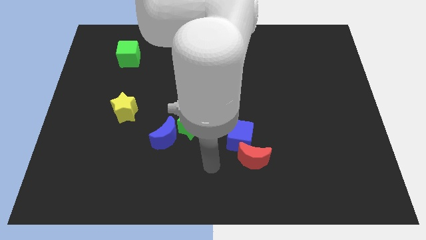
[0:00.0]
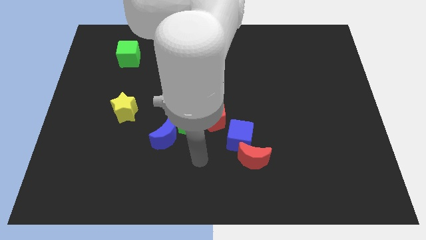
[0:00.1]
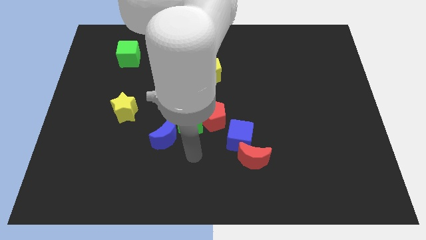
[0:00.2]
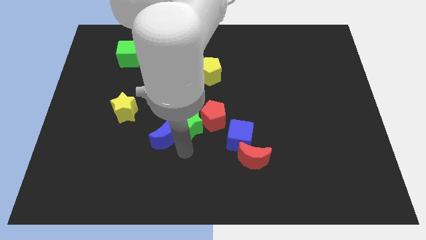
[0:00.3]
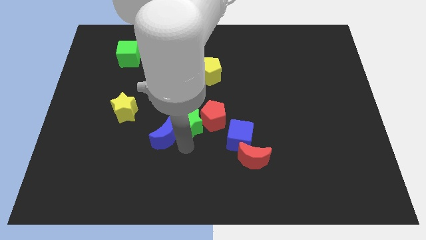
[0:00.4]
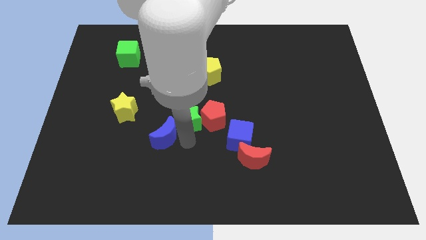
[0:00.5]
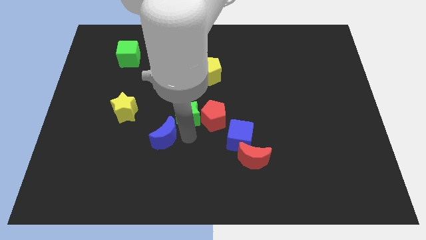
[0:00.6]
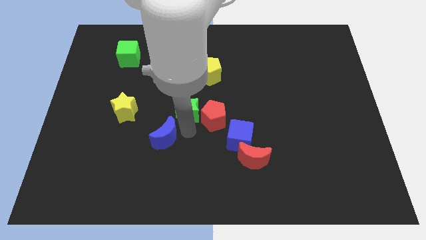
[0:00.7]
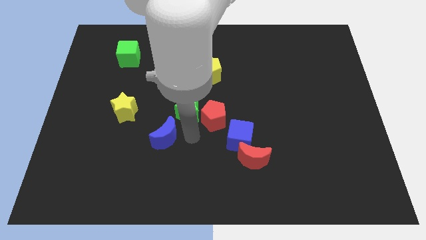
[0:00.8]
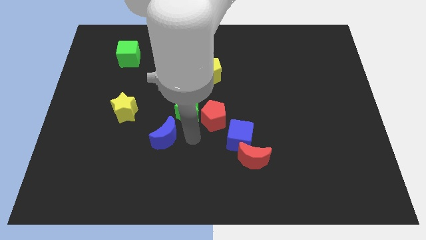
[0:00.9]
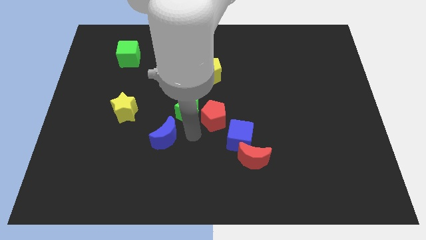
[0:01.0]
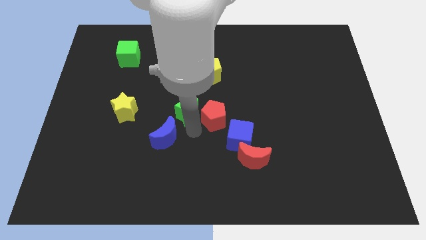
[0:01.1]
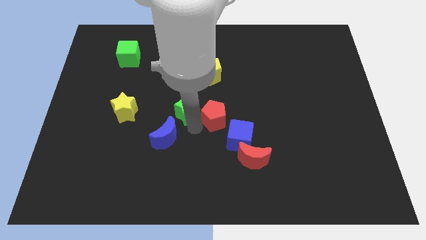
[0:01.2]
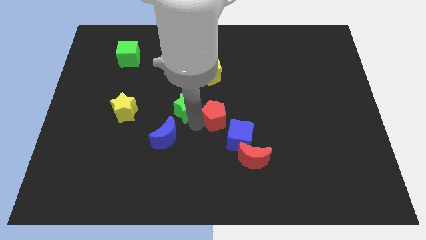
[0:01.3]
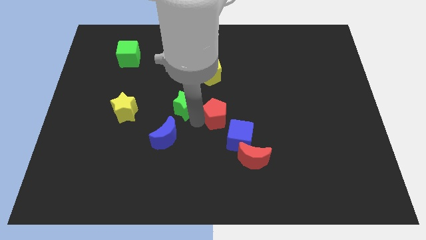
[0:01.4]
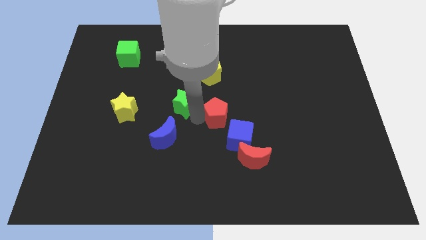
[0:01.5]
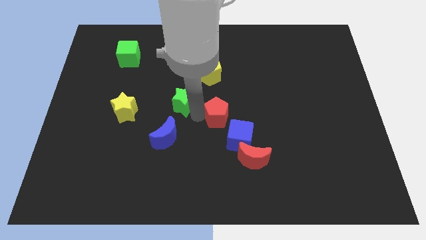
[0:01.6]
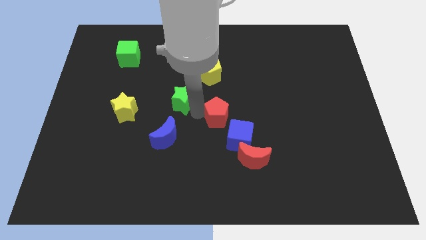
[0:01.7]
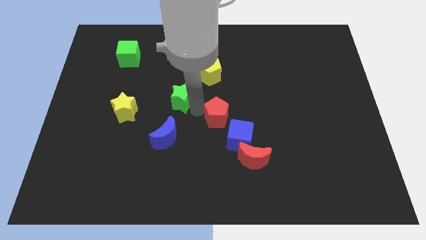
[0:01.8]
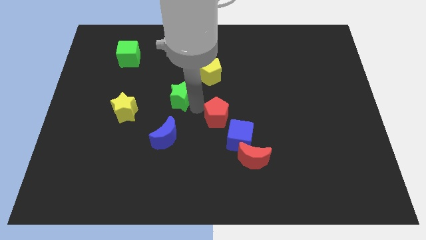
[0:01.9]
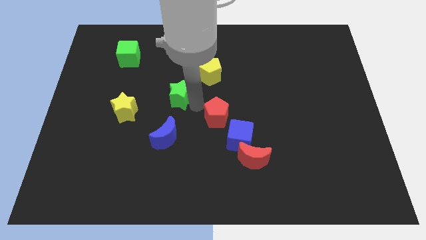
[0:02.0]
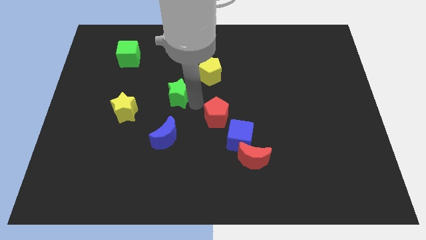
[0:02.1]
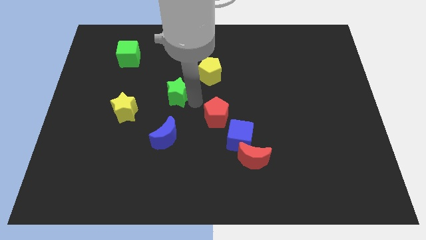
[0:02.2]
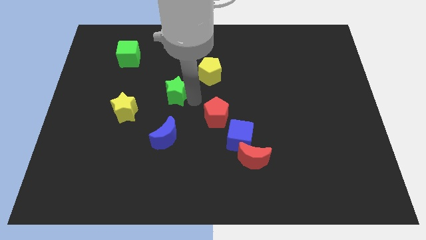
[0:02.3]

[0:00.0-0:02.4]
move the green star away from the red pentagon and blue moon

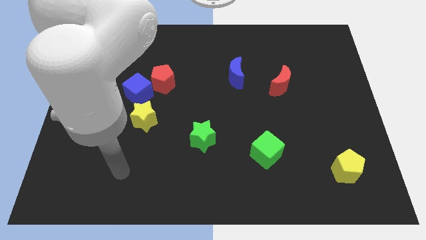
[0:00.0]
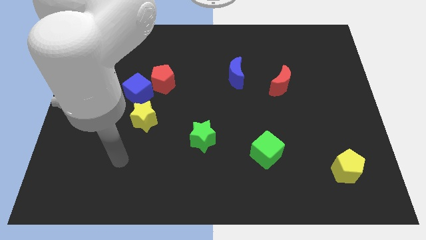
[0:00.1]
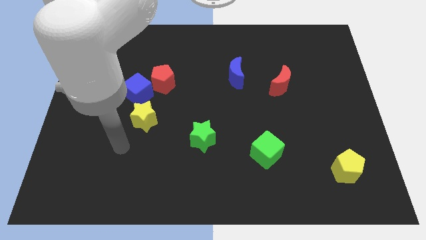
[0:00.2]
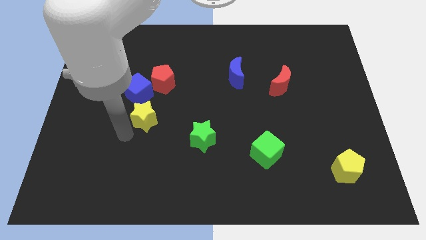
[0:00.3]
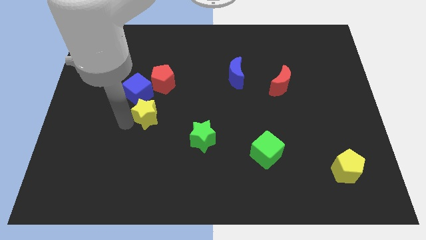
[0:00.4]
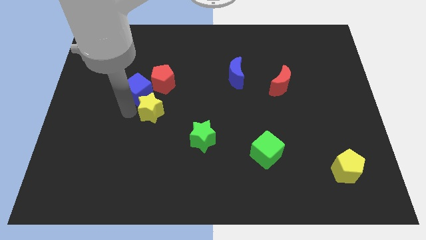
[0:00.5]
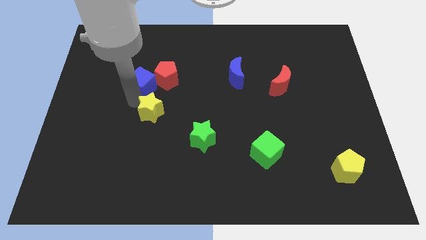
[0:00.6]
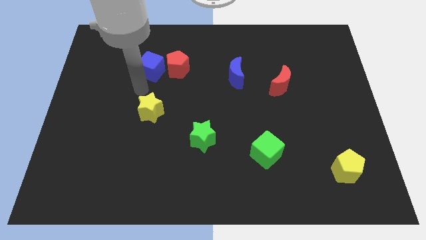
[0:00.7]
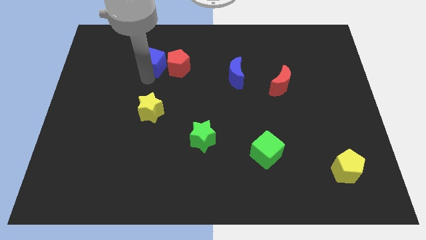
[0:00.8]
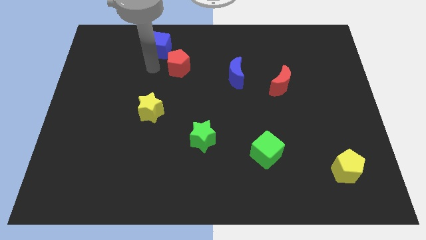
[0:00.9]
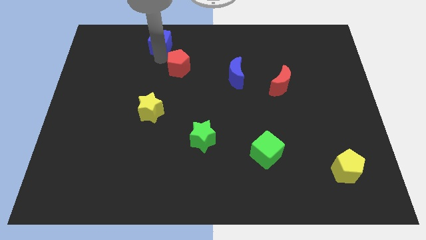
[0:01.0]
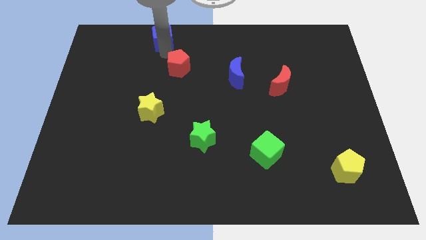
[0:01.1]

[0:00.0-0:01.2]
move the red pentagon away from the blue cube

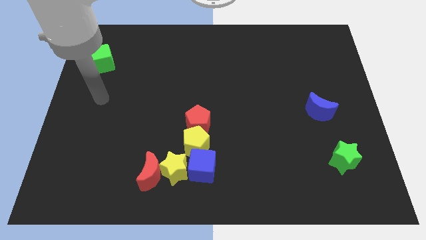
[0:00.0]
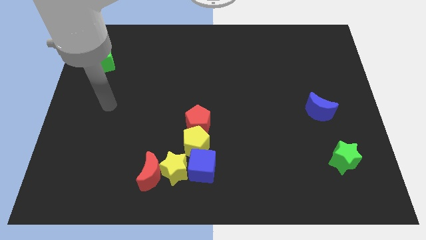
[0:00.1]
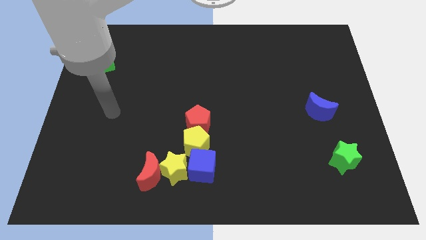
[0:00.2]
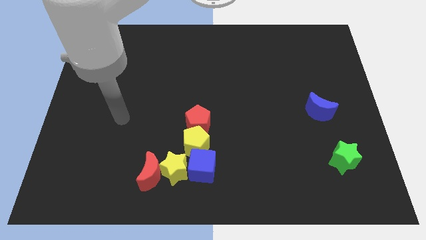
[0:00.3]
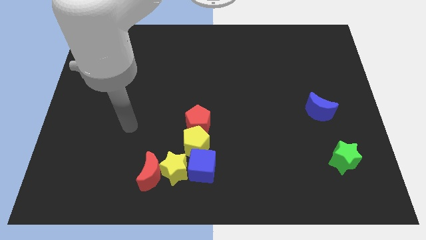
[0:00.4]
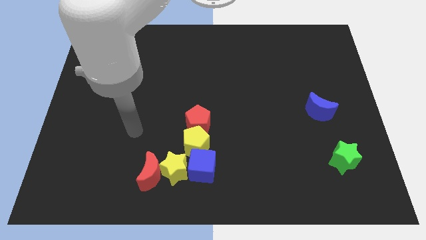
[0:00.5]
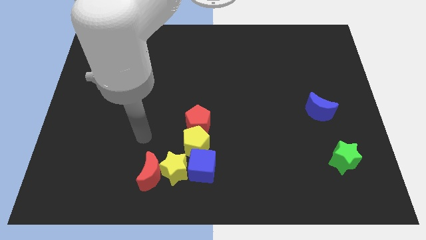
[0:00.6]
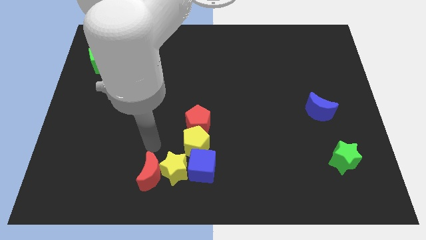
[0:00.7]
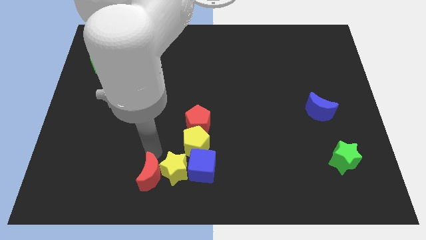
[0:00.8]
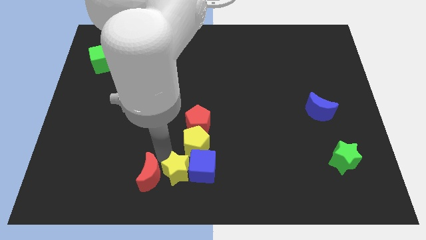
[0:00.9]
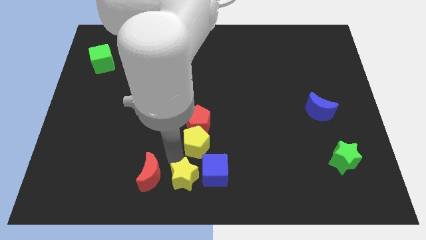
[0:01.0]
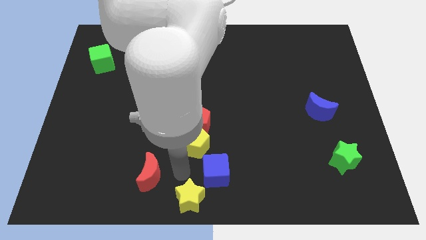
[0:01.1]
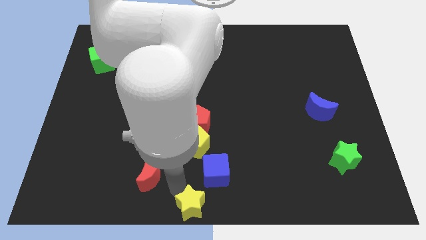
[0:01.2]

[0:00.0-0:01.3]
separate the red moon from the yellow star

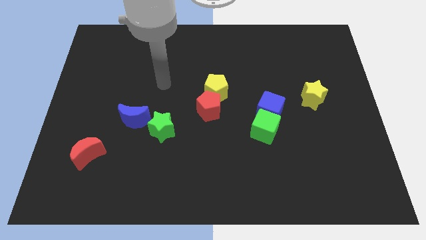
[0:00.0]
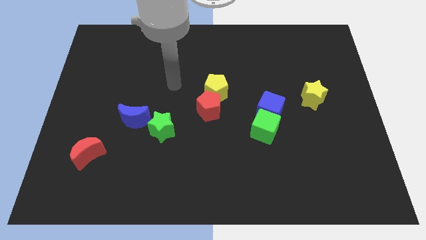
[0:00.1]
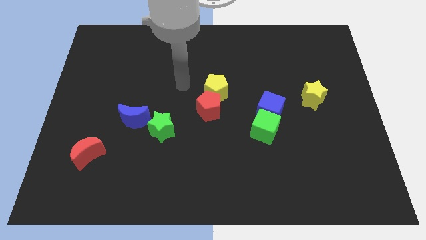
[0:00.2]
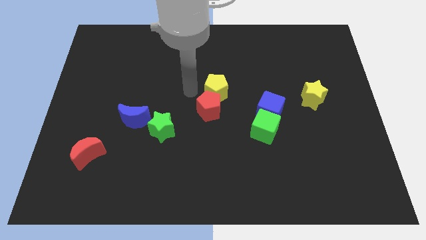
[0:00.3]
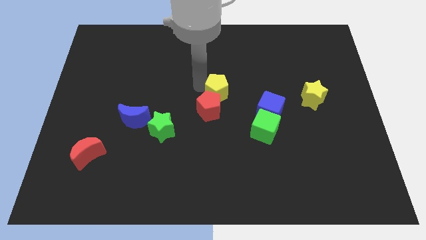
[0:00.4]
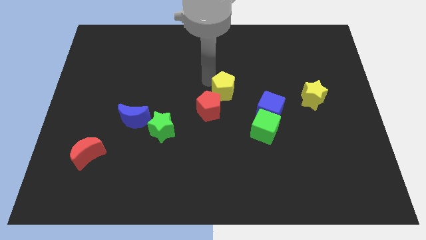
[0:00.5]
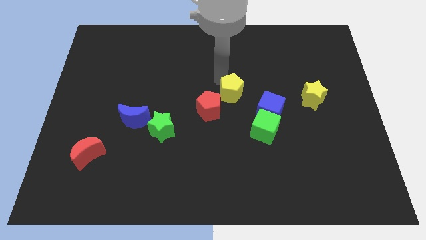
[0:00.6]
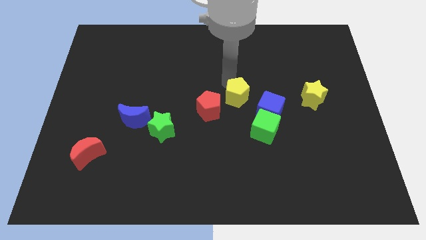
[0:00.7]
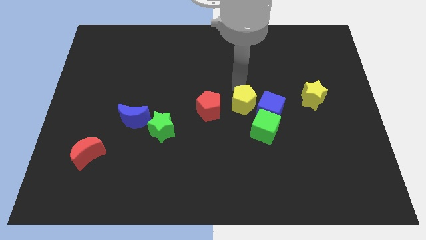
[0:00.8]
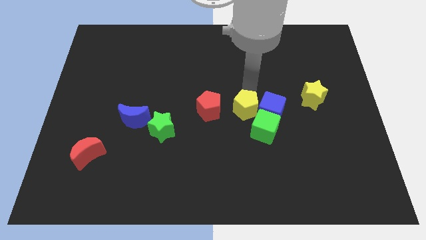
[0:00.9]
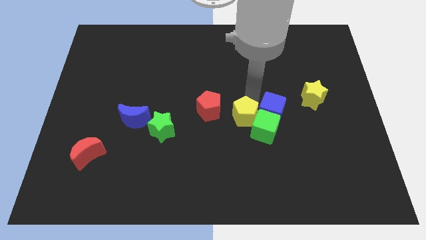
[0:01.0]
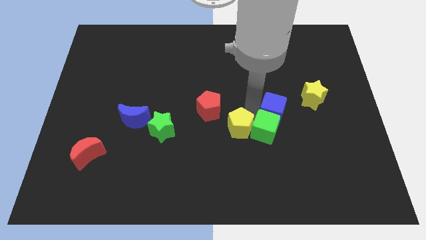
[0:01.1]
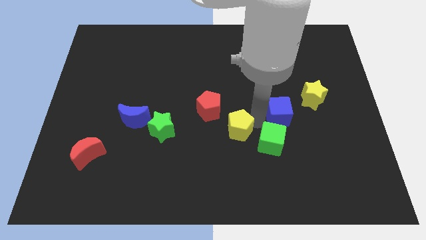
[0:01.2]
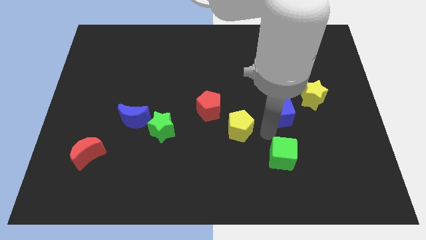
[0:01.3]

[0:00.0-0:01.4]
move the blue cube away from the green cube

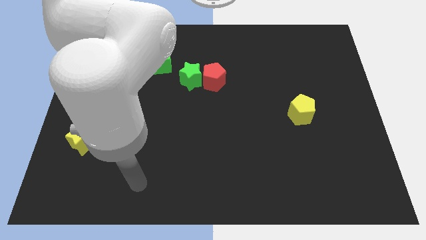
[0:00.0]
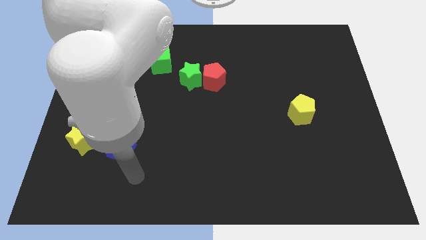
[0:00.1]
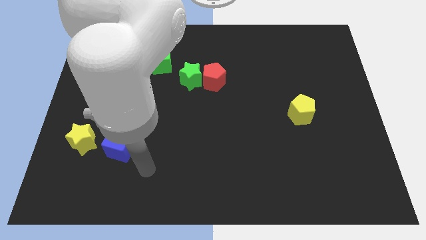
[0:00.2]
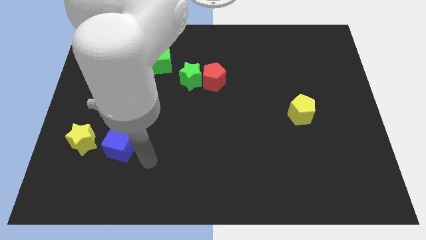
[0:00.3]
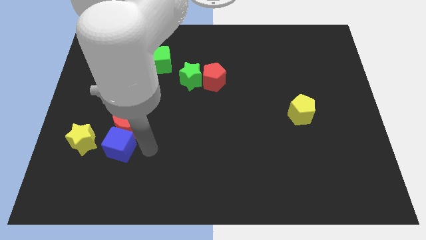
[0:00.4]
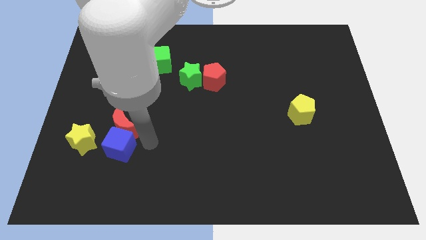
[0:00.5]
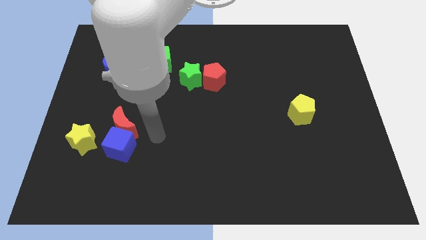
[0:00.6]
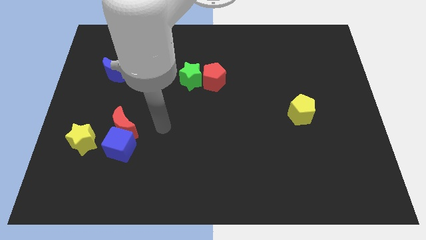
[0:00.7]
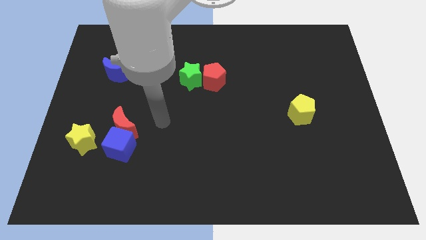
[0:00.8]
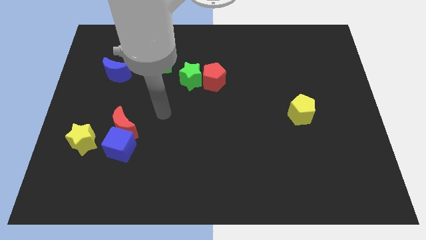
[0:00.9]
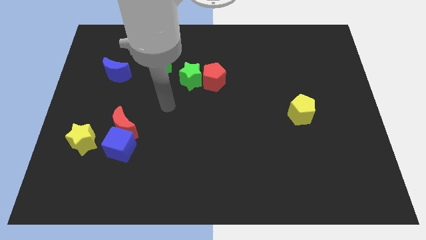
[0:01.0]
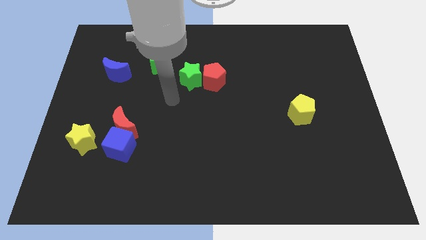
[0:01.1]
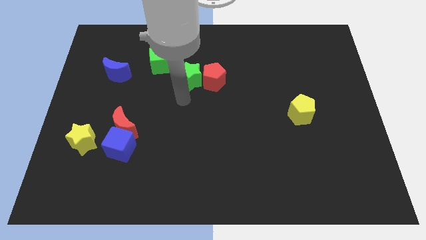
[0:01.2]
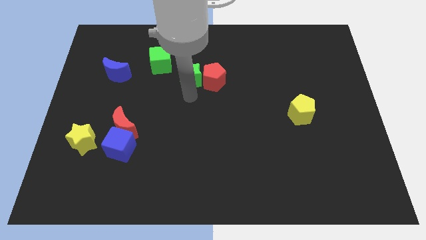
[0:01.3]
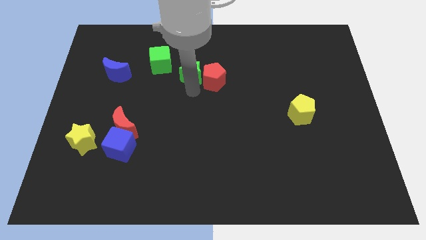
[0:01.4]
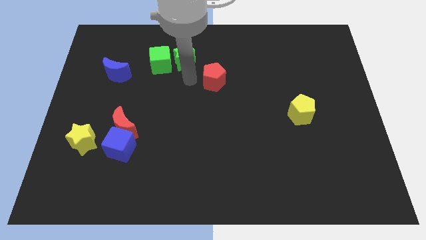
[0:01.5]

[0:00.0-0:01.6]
pull the red pentagon apart from the green star

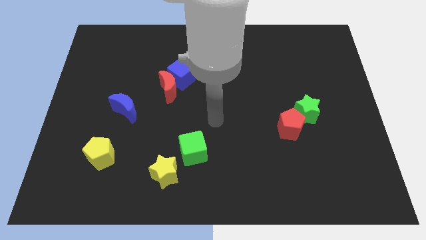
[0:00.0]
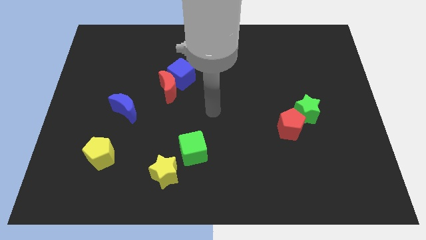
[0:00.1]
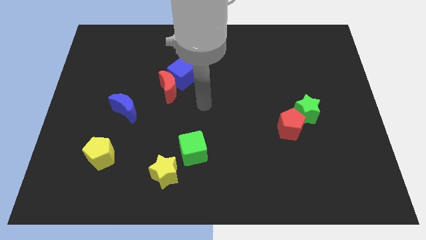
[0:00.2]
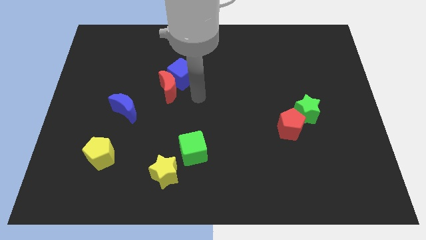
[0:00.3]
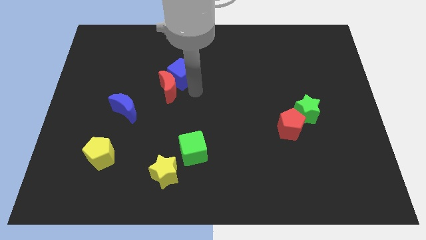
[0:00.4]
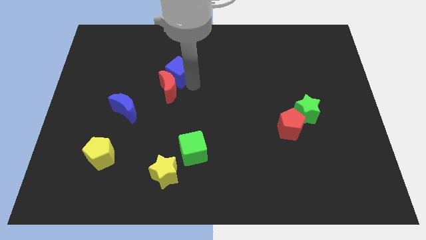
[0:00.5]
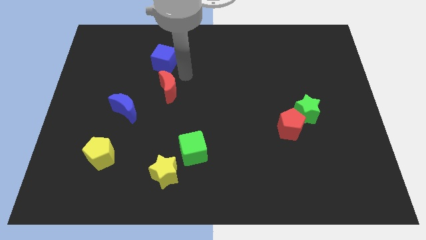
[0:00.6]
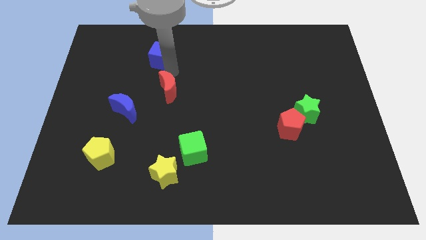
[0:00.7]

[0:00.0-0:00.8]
separate the red moon from the blue cube

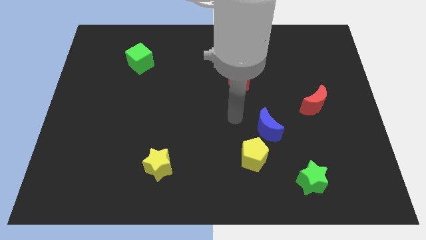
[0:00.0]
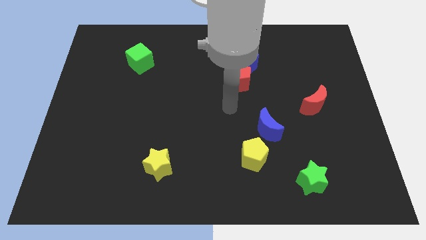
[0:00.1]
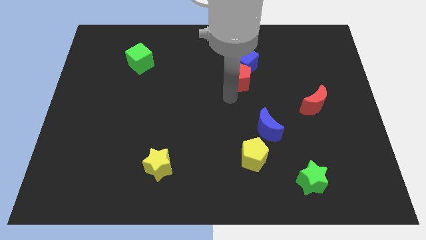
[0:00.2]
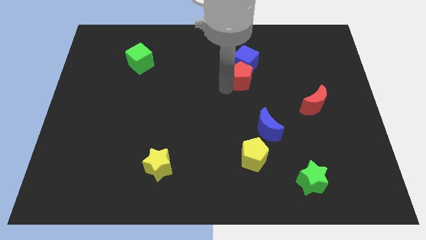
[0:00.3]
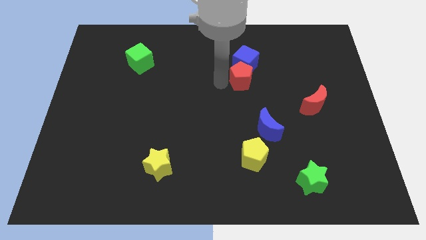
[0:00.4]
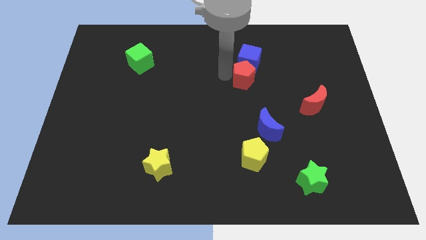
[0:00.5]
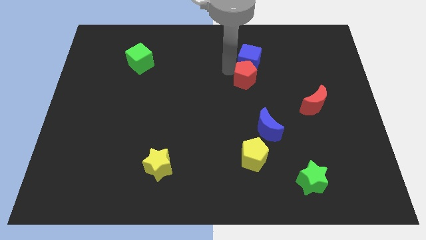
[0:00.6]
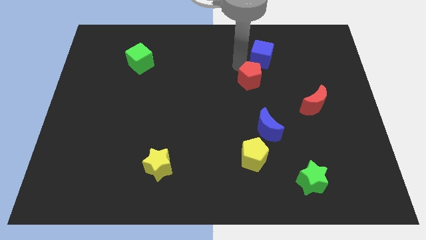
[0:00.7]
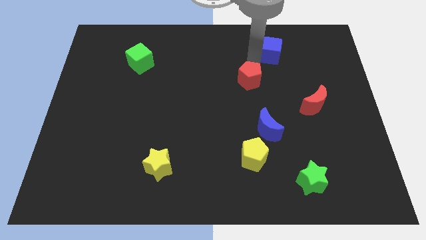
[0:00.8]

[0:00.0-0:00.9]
separate the red pentagon from the blue cube
